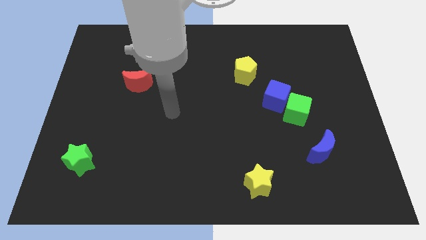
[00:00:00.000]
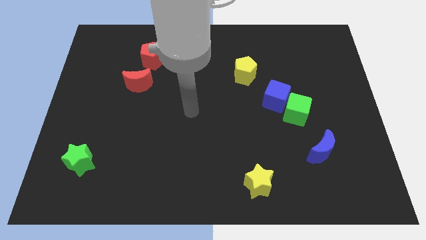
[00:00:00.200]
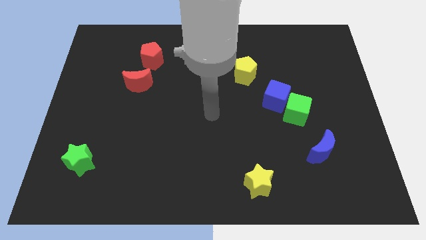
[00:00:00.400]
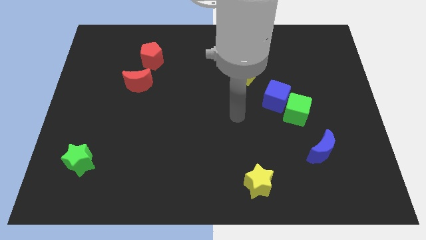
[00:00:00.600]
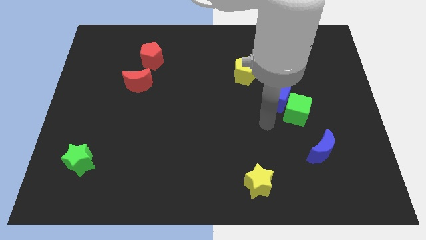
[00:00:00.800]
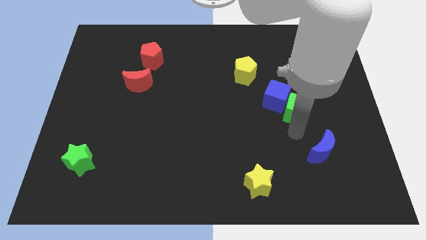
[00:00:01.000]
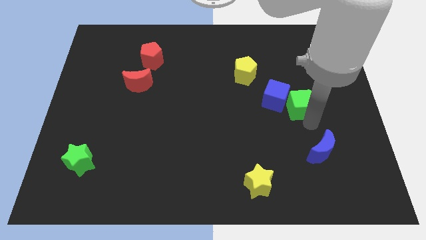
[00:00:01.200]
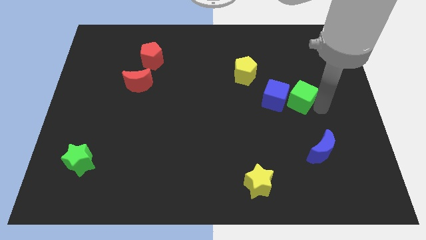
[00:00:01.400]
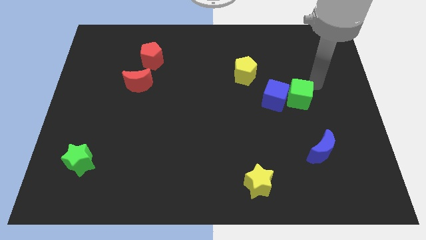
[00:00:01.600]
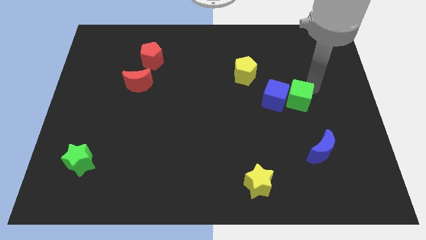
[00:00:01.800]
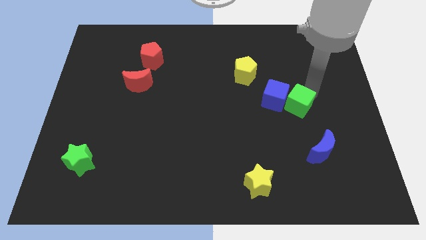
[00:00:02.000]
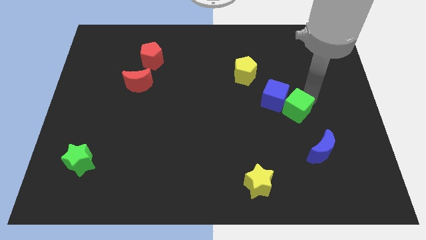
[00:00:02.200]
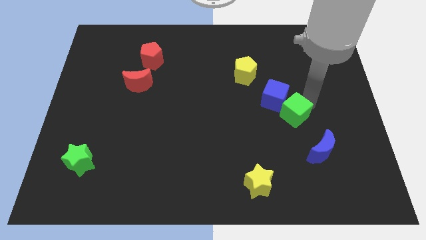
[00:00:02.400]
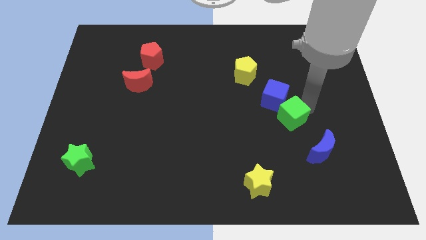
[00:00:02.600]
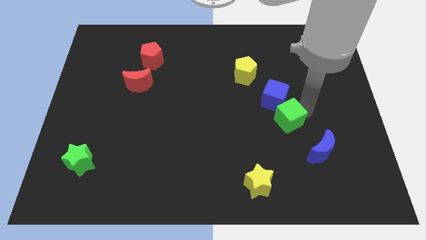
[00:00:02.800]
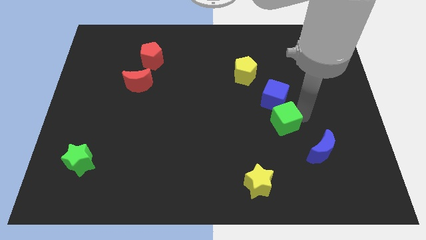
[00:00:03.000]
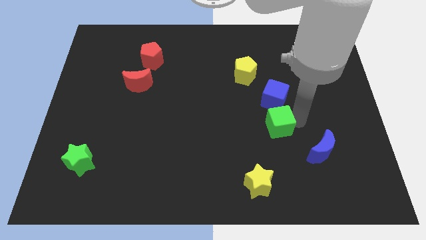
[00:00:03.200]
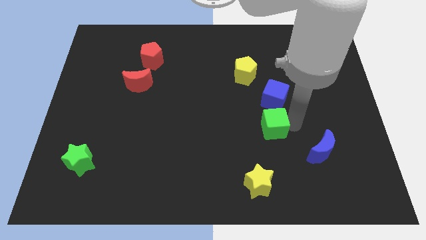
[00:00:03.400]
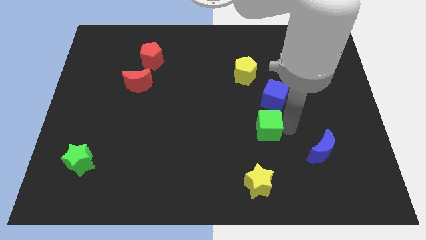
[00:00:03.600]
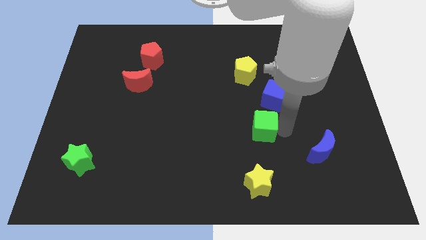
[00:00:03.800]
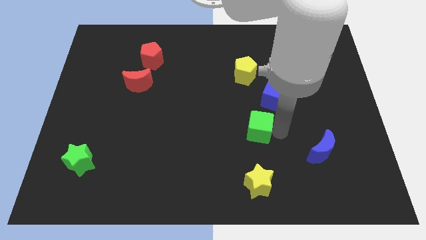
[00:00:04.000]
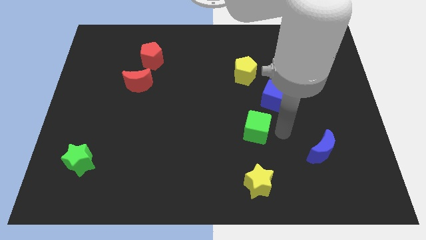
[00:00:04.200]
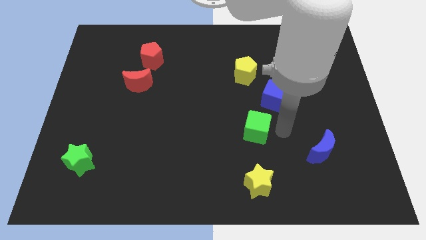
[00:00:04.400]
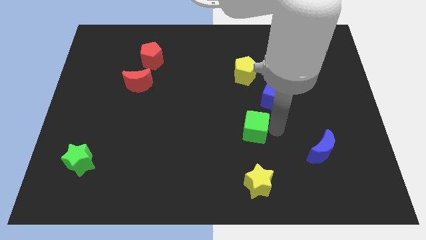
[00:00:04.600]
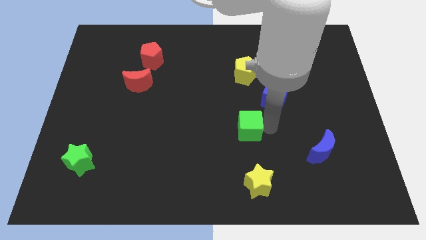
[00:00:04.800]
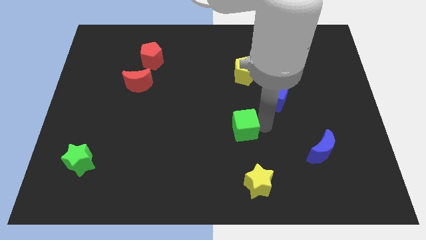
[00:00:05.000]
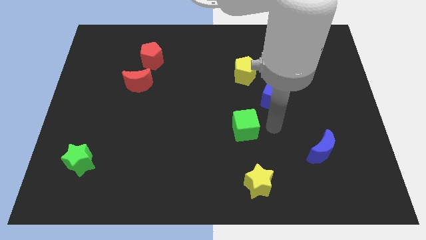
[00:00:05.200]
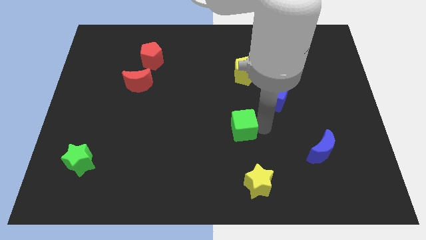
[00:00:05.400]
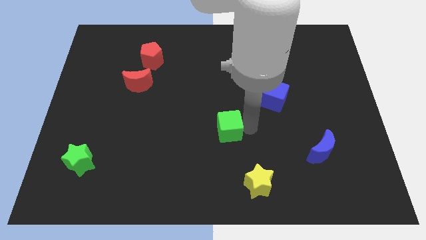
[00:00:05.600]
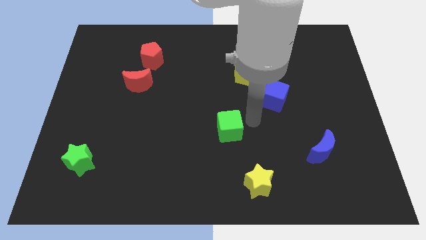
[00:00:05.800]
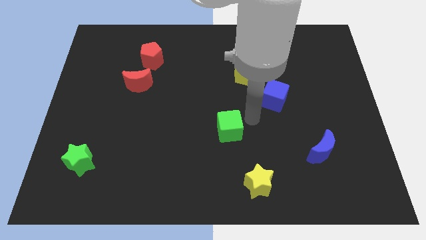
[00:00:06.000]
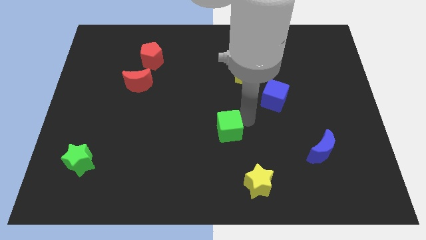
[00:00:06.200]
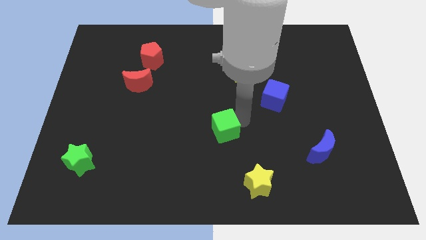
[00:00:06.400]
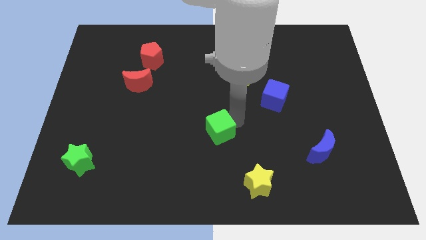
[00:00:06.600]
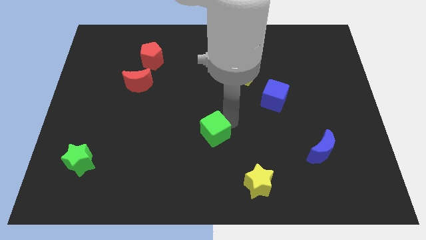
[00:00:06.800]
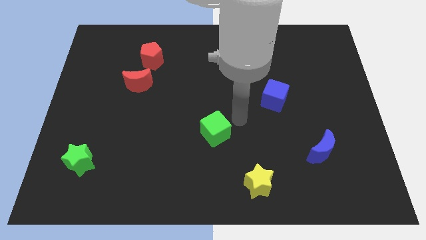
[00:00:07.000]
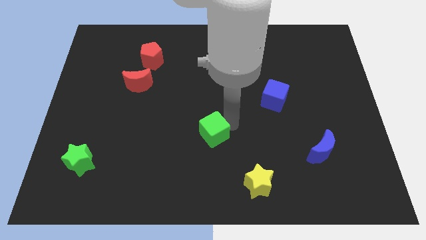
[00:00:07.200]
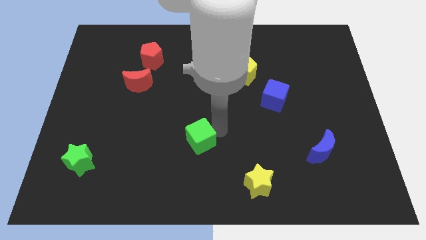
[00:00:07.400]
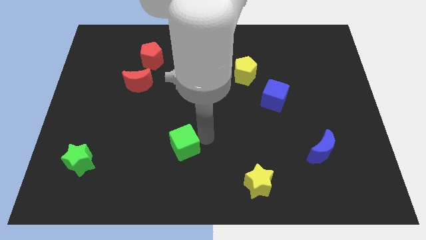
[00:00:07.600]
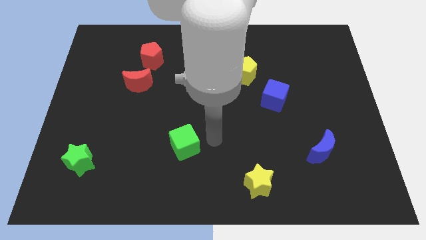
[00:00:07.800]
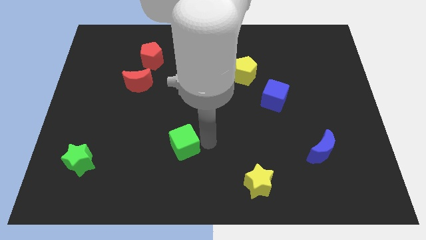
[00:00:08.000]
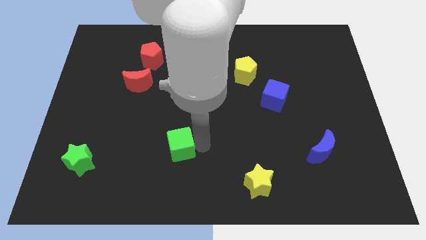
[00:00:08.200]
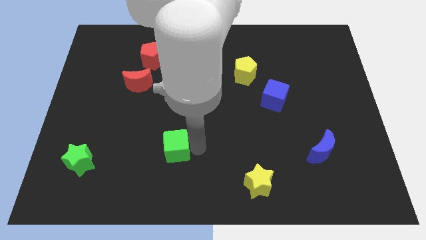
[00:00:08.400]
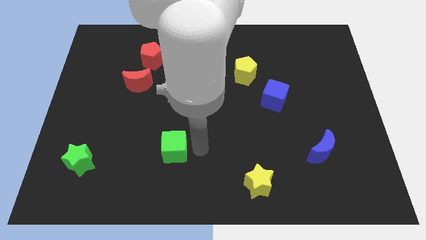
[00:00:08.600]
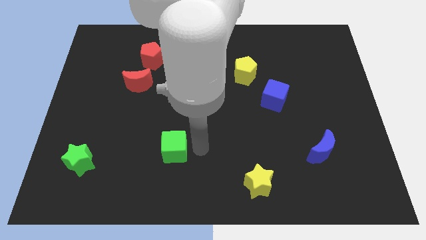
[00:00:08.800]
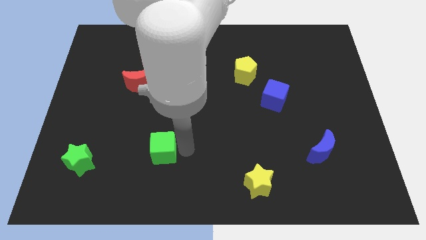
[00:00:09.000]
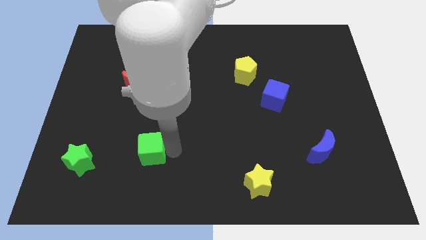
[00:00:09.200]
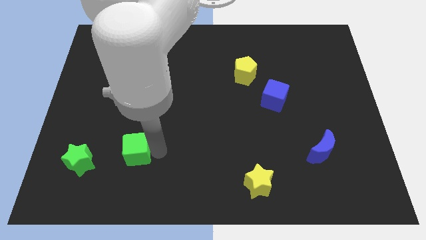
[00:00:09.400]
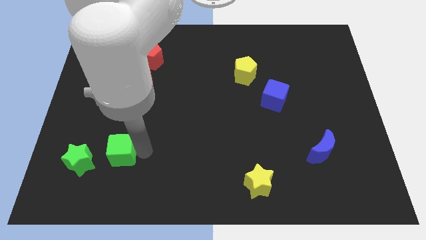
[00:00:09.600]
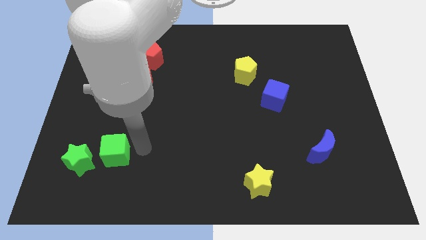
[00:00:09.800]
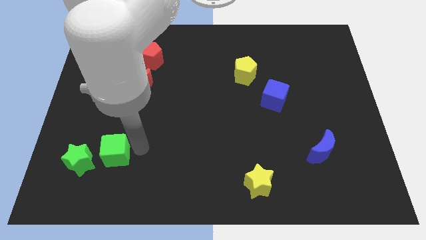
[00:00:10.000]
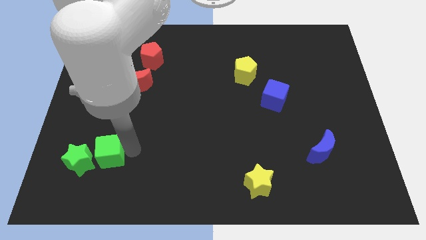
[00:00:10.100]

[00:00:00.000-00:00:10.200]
slide the green cube to the green star

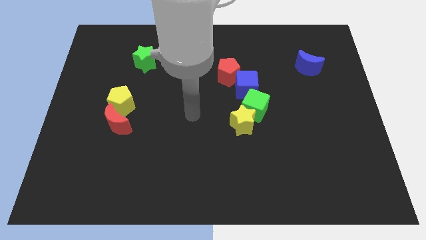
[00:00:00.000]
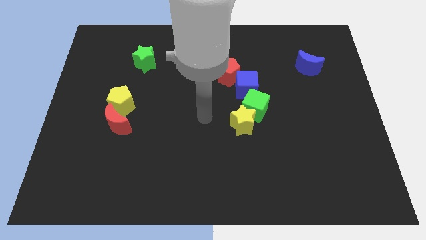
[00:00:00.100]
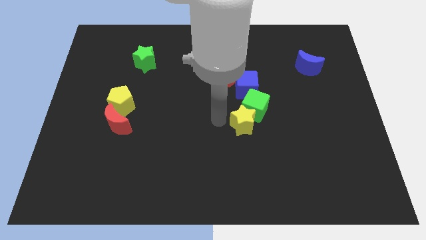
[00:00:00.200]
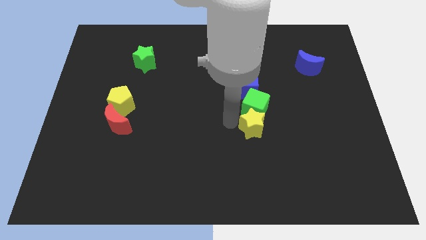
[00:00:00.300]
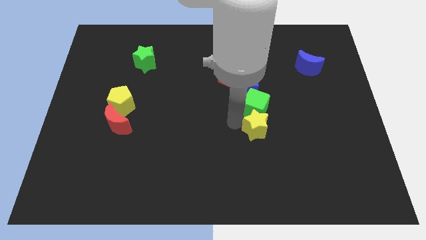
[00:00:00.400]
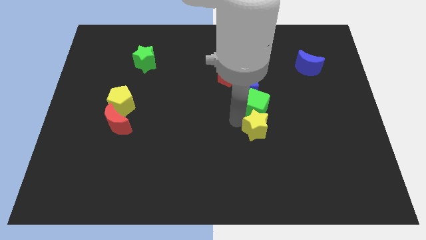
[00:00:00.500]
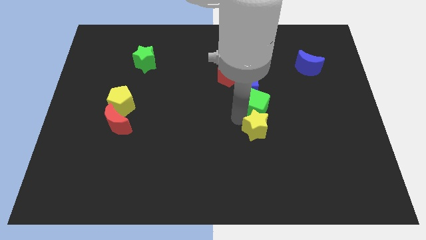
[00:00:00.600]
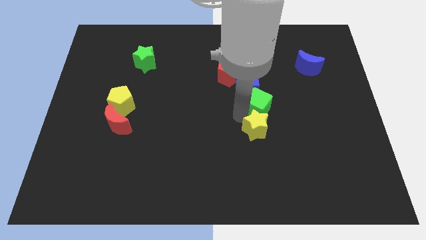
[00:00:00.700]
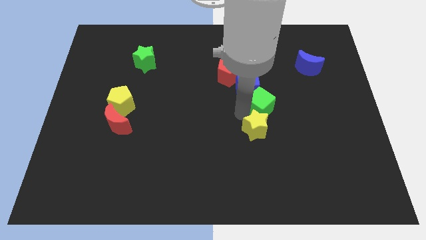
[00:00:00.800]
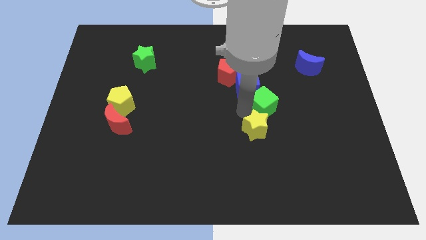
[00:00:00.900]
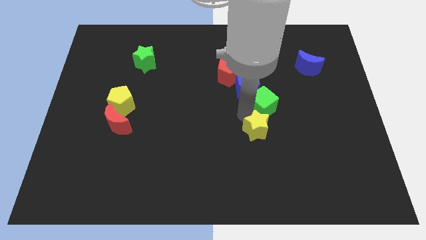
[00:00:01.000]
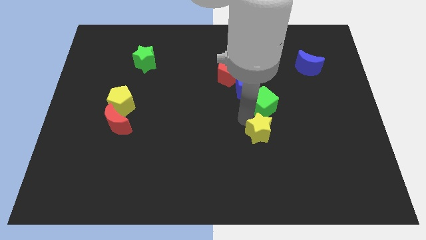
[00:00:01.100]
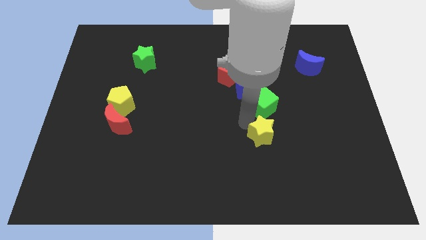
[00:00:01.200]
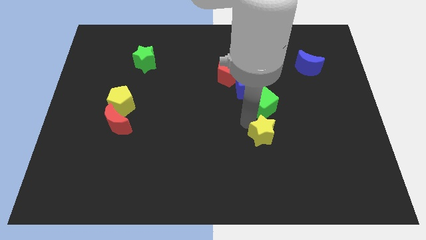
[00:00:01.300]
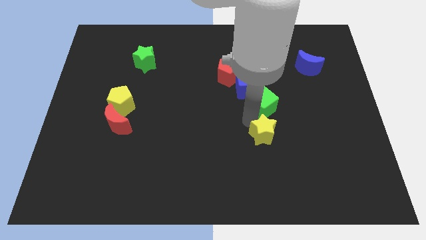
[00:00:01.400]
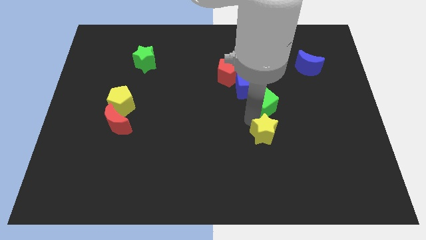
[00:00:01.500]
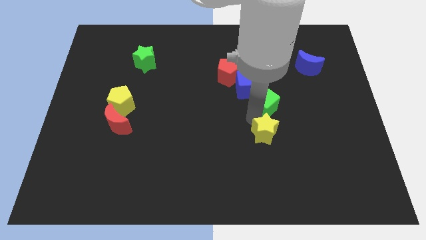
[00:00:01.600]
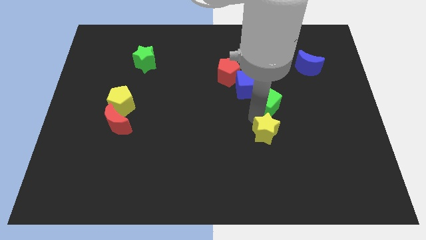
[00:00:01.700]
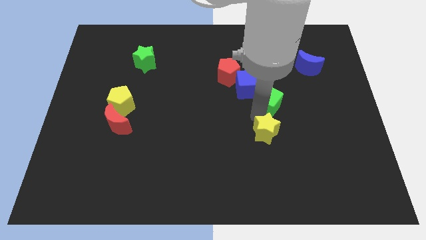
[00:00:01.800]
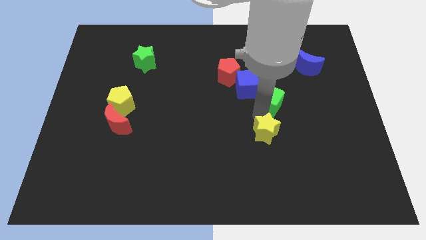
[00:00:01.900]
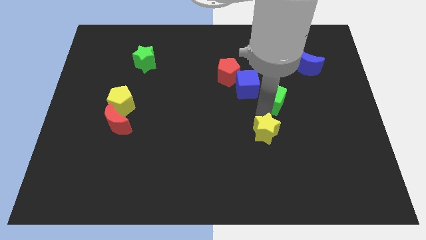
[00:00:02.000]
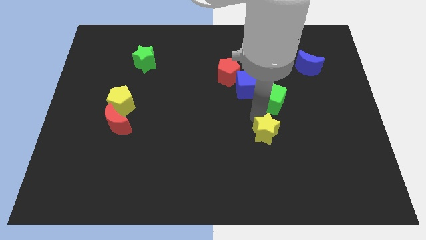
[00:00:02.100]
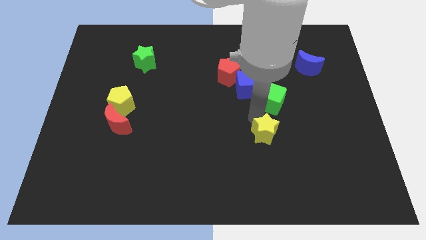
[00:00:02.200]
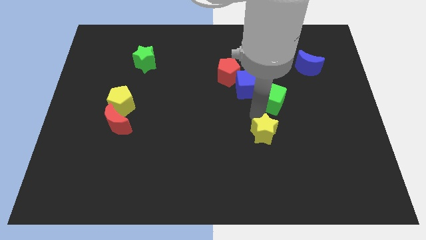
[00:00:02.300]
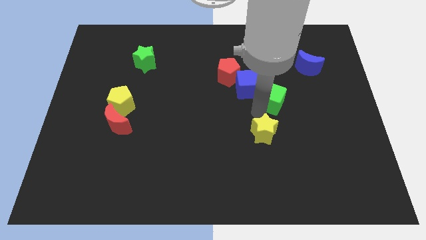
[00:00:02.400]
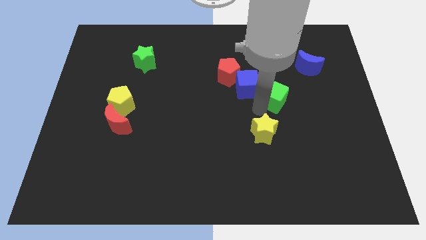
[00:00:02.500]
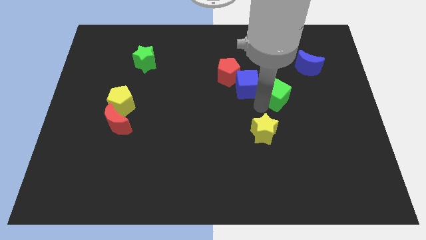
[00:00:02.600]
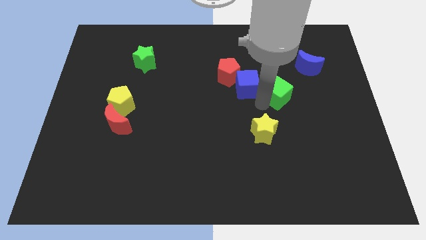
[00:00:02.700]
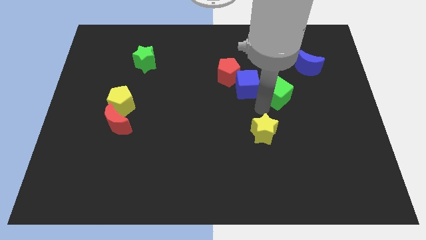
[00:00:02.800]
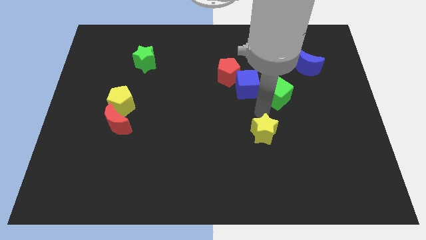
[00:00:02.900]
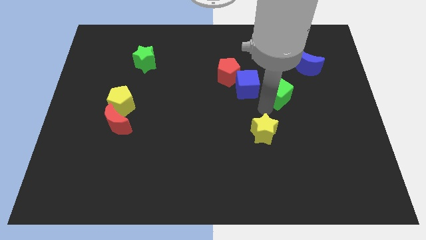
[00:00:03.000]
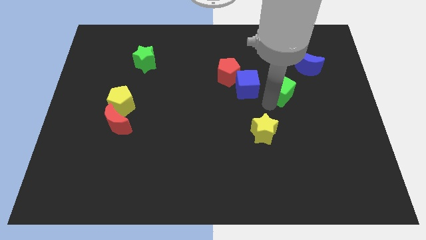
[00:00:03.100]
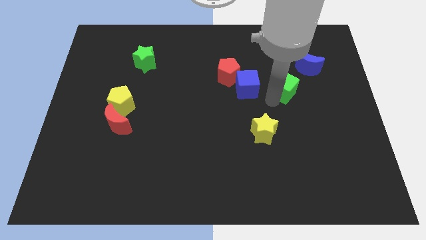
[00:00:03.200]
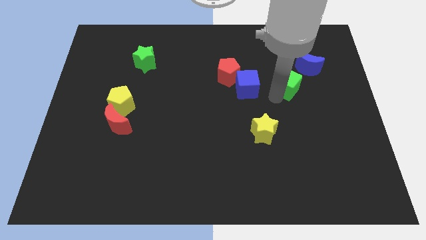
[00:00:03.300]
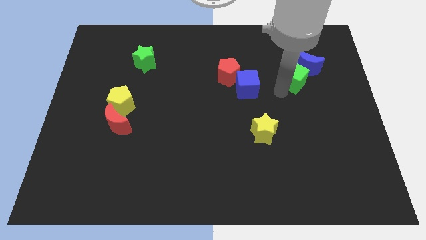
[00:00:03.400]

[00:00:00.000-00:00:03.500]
put the green cube next to the blue moon
